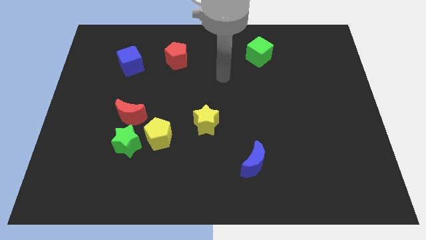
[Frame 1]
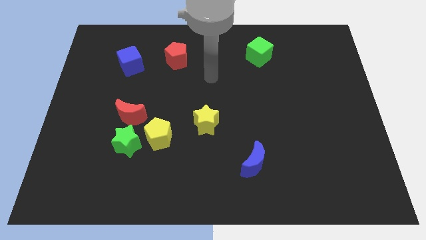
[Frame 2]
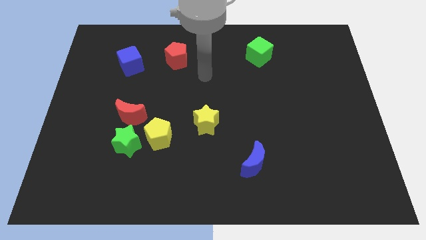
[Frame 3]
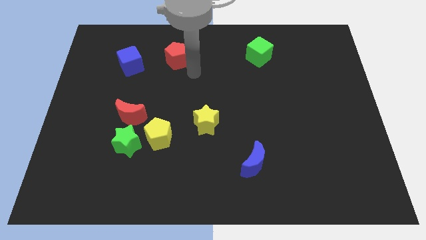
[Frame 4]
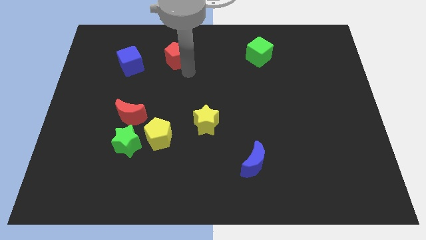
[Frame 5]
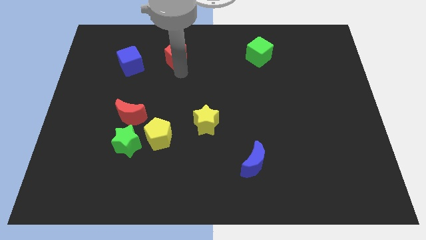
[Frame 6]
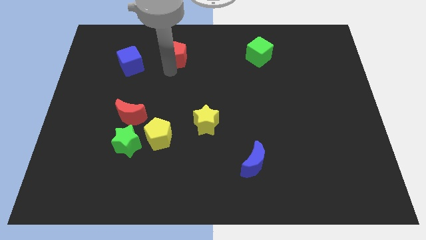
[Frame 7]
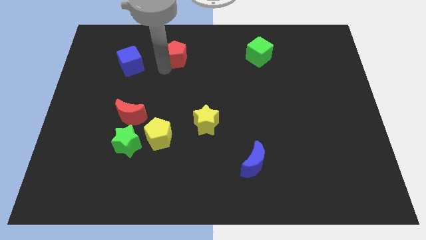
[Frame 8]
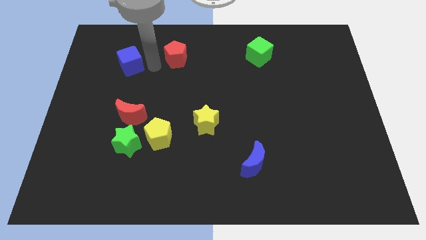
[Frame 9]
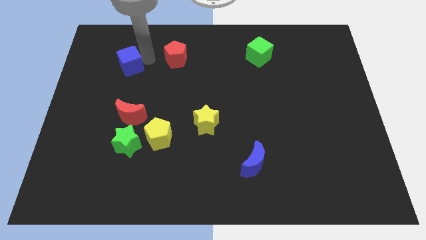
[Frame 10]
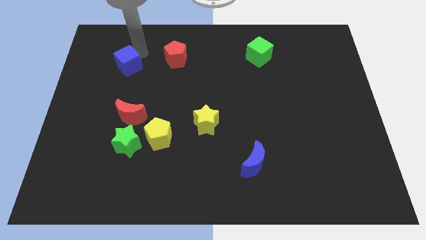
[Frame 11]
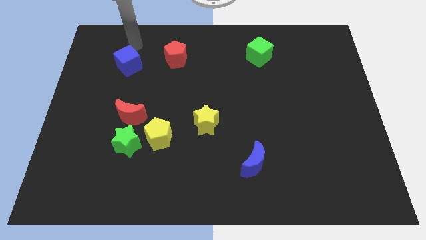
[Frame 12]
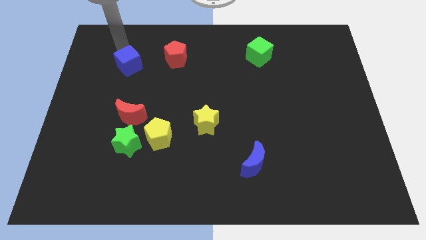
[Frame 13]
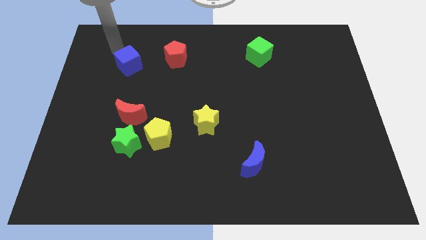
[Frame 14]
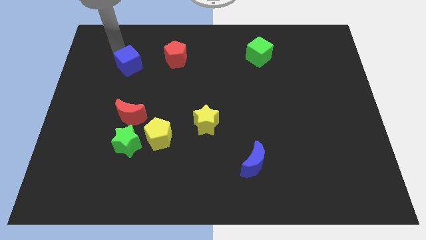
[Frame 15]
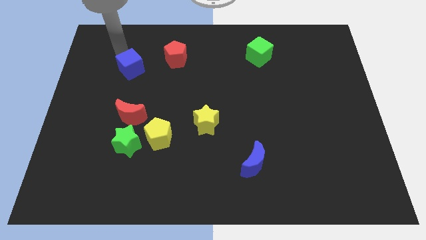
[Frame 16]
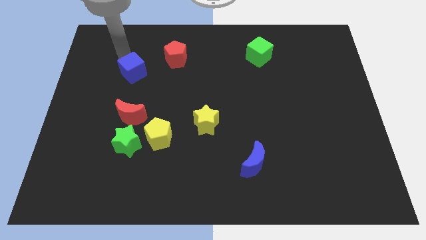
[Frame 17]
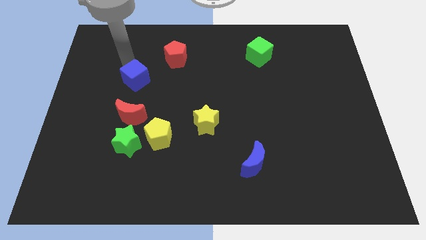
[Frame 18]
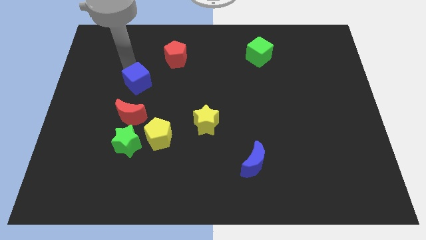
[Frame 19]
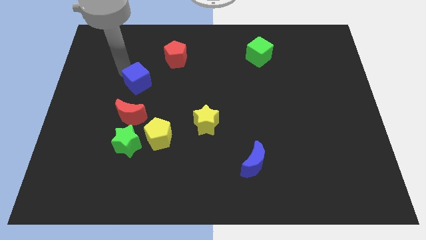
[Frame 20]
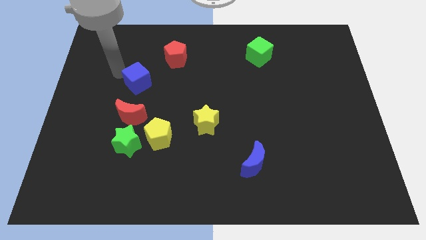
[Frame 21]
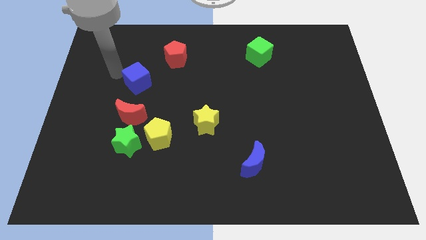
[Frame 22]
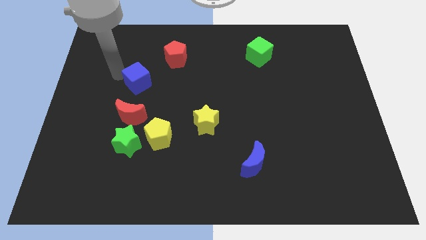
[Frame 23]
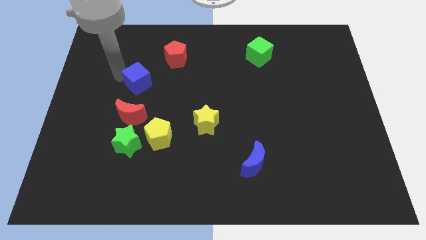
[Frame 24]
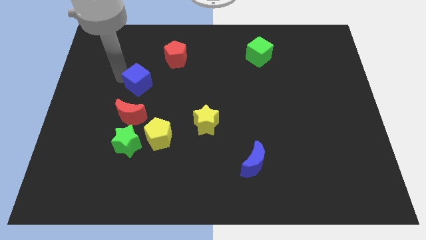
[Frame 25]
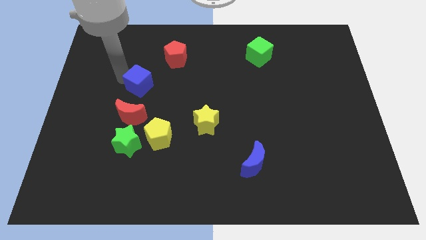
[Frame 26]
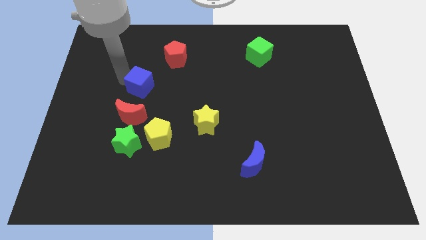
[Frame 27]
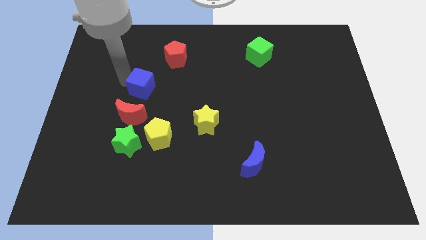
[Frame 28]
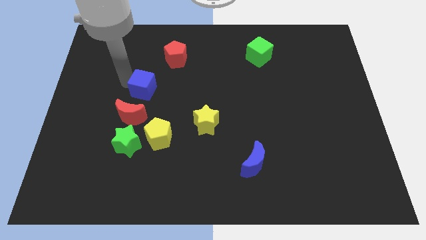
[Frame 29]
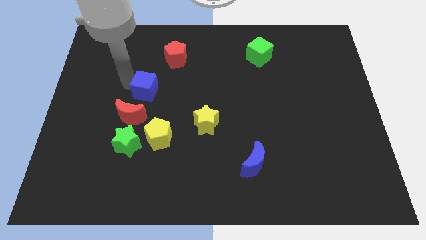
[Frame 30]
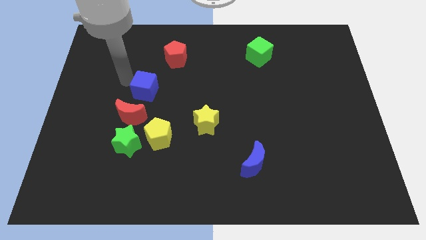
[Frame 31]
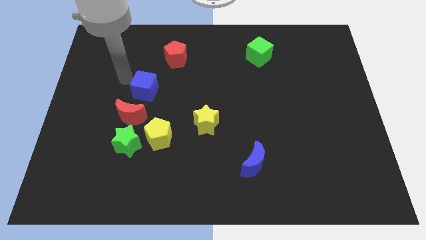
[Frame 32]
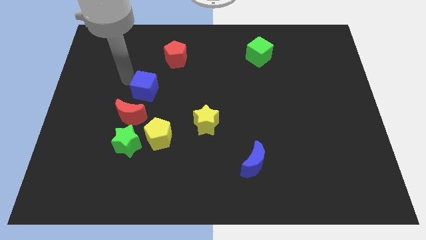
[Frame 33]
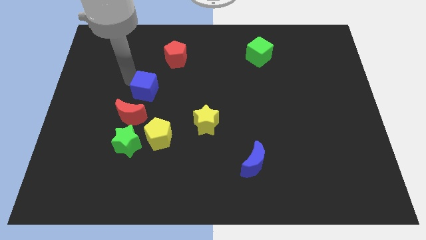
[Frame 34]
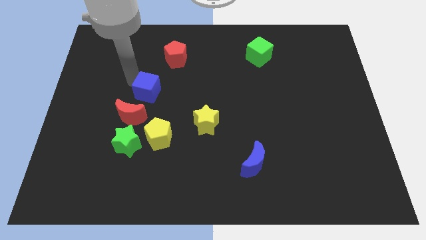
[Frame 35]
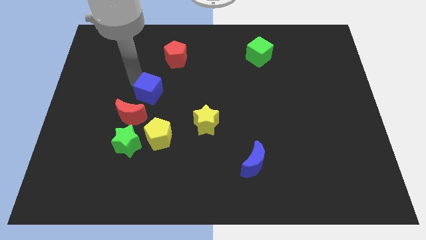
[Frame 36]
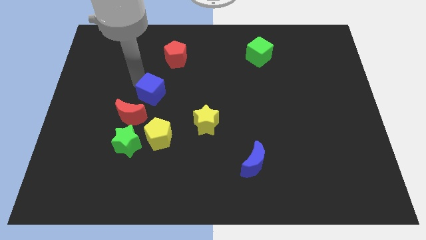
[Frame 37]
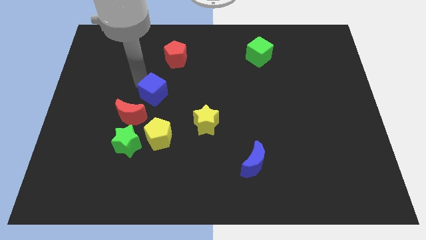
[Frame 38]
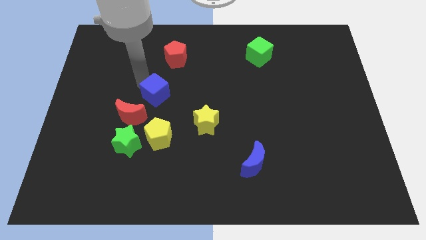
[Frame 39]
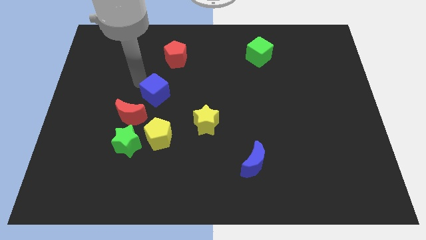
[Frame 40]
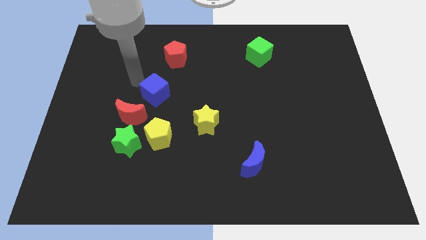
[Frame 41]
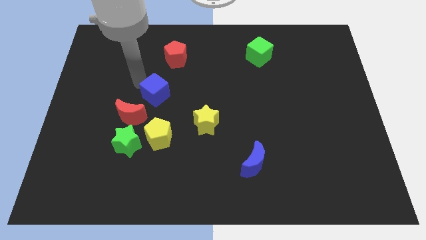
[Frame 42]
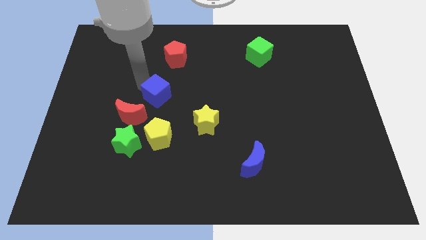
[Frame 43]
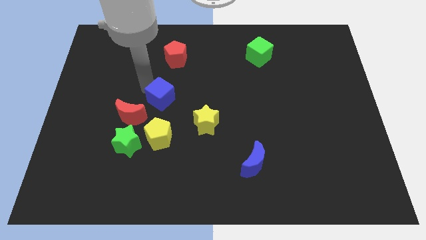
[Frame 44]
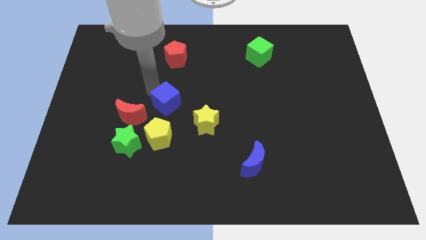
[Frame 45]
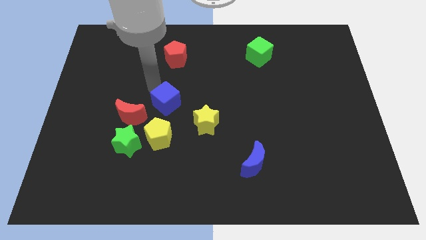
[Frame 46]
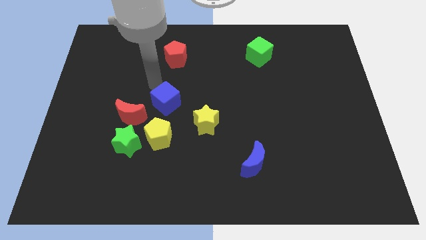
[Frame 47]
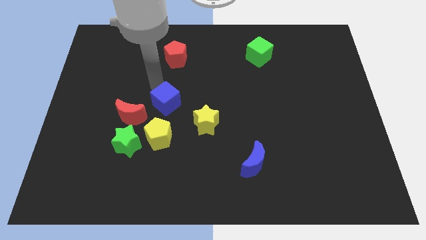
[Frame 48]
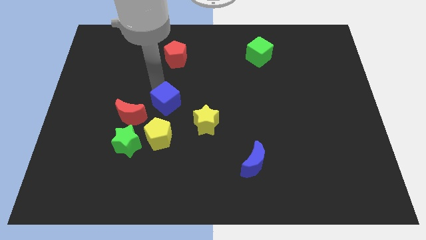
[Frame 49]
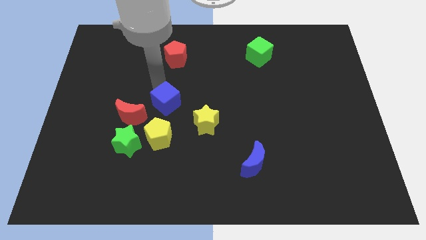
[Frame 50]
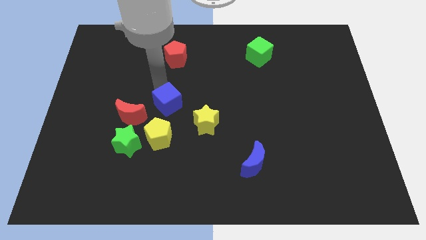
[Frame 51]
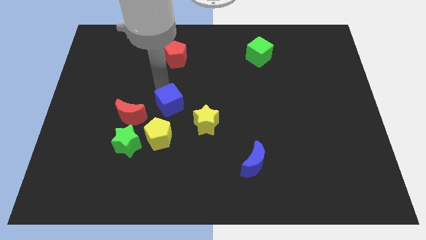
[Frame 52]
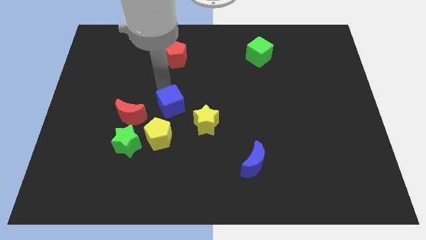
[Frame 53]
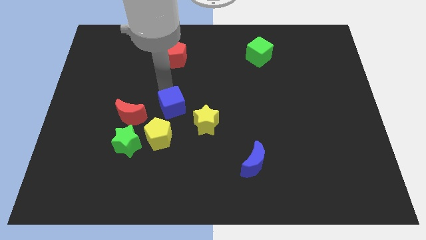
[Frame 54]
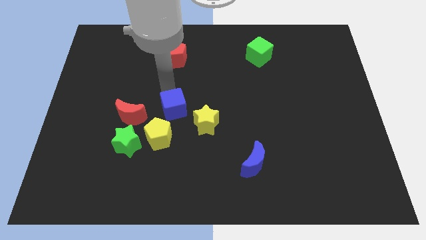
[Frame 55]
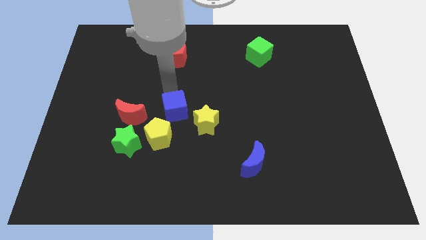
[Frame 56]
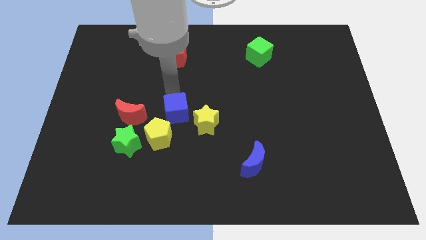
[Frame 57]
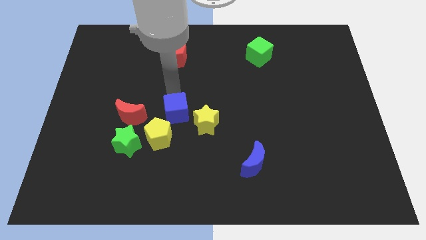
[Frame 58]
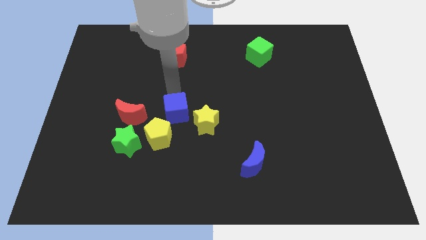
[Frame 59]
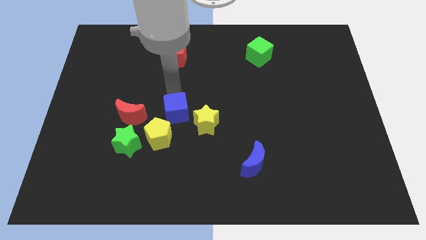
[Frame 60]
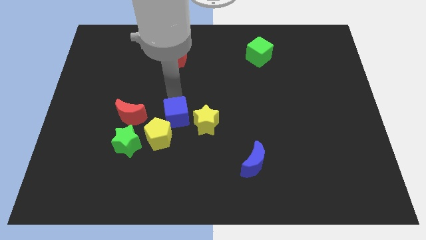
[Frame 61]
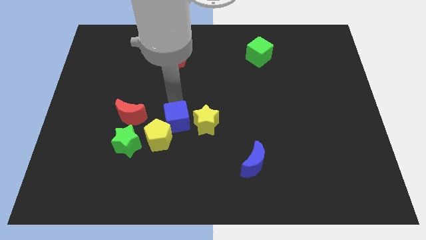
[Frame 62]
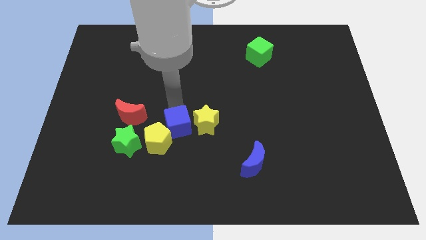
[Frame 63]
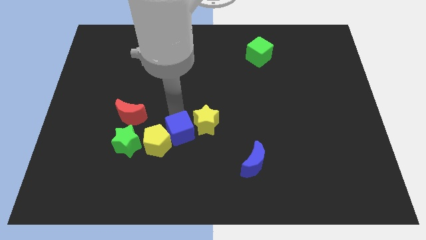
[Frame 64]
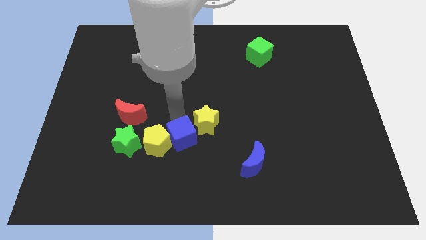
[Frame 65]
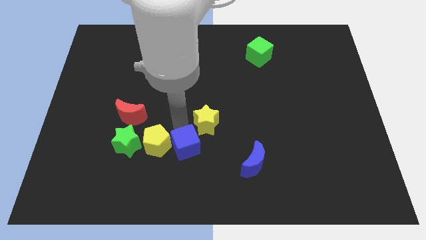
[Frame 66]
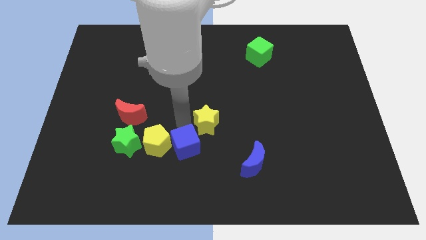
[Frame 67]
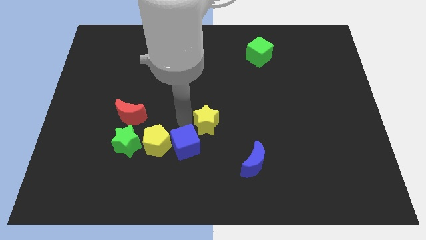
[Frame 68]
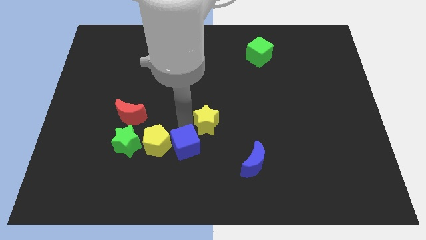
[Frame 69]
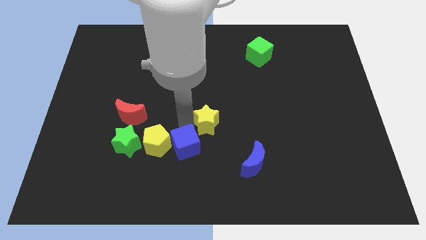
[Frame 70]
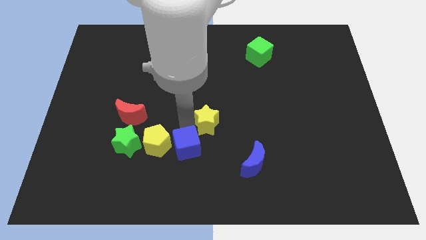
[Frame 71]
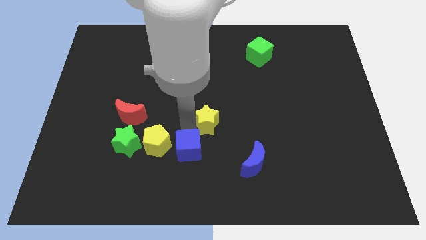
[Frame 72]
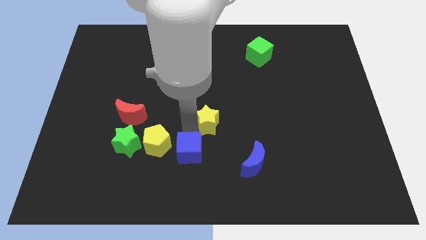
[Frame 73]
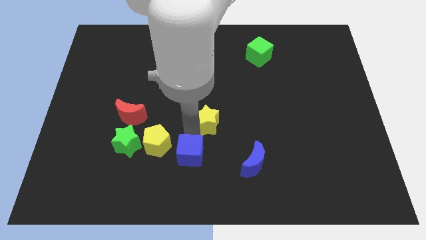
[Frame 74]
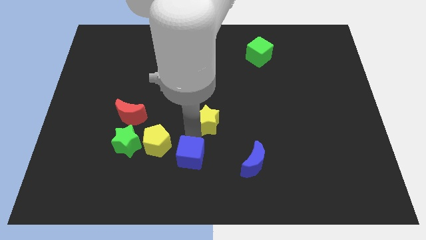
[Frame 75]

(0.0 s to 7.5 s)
move the blue cube to the bottom side

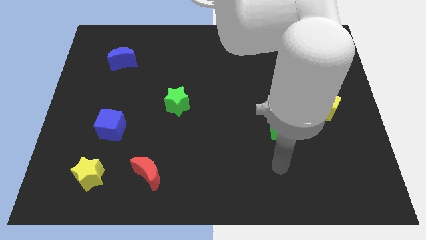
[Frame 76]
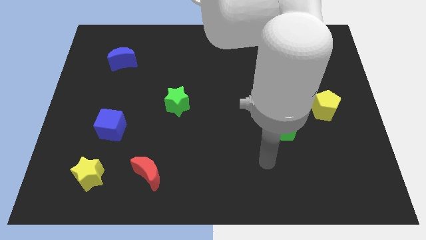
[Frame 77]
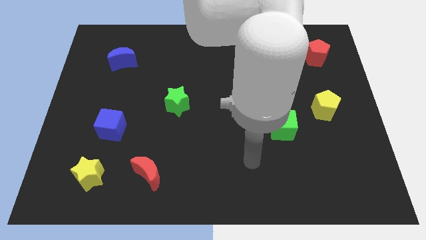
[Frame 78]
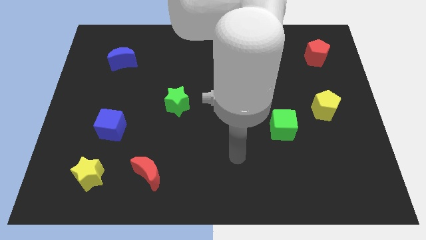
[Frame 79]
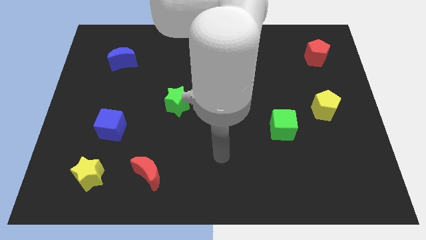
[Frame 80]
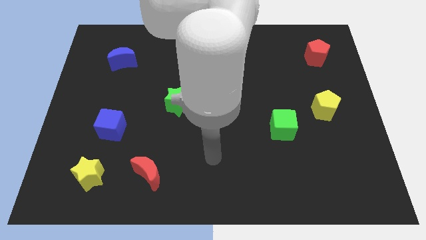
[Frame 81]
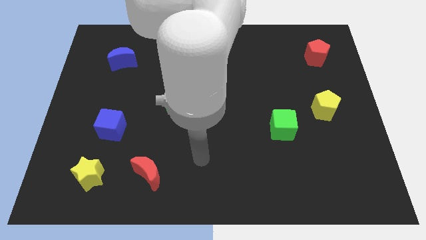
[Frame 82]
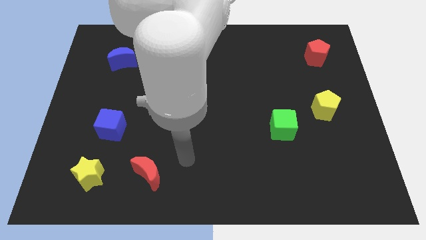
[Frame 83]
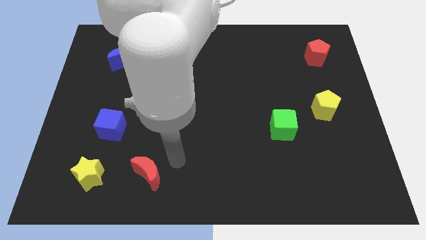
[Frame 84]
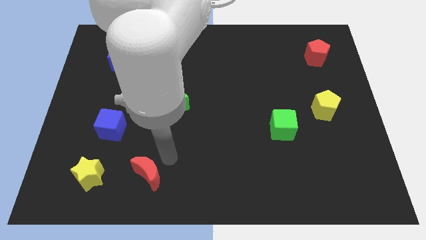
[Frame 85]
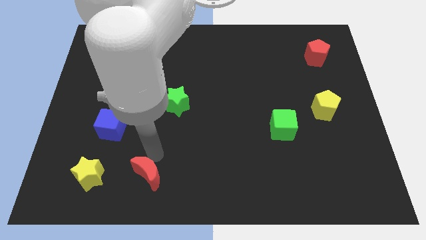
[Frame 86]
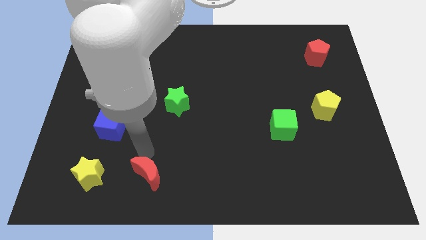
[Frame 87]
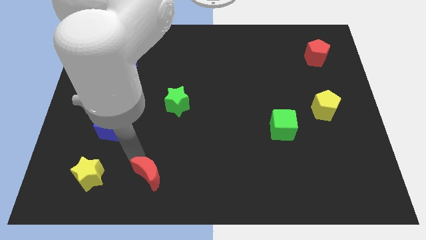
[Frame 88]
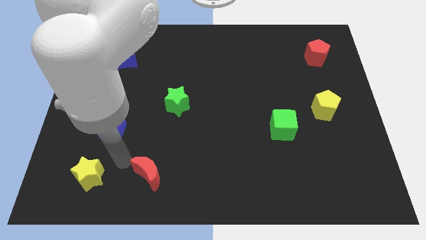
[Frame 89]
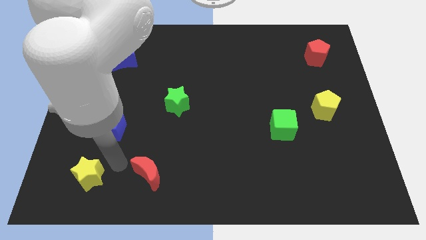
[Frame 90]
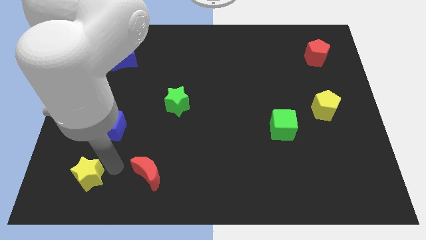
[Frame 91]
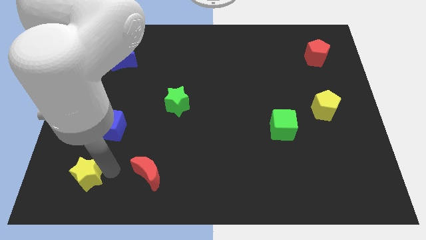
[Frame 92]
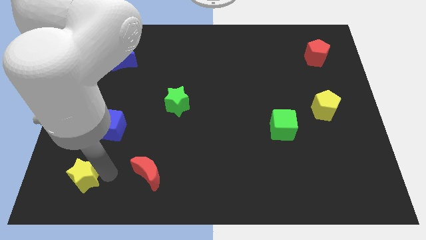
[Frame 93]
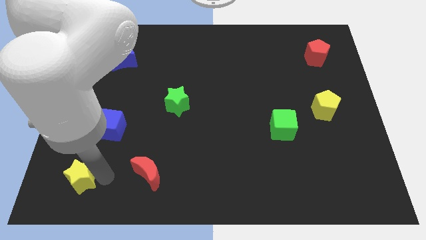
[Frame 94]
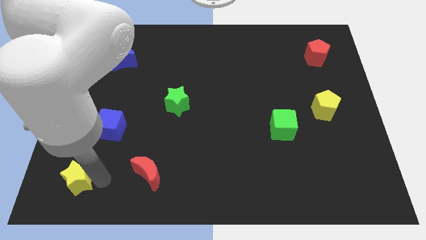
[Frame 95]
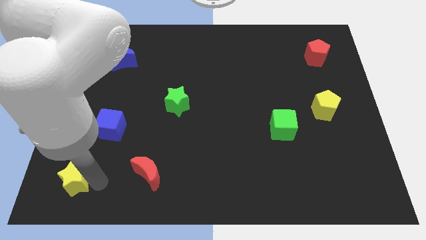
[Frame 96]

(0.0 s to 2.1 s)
move the yellow star to the bottom left
